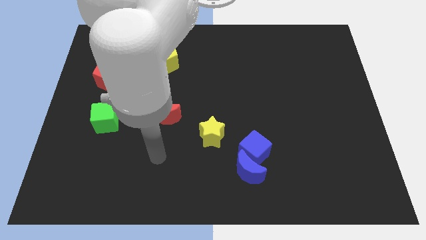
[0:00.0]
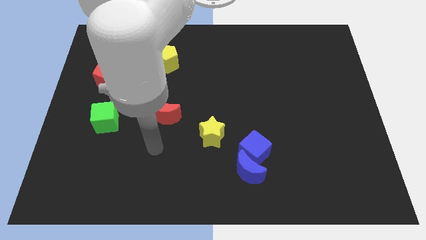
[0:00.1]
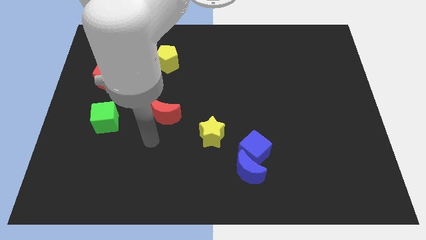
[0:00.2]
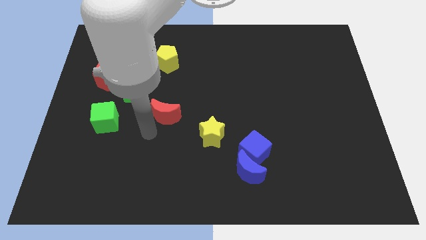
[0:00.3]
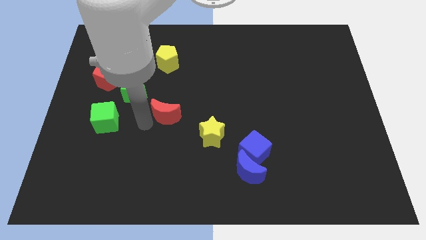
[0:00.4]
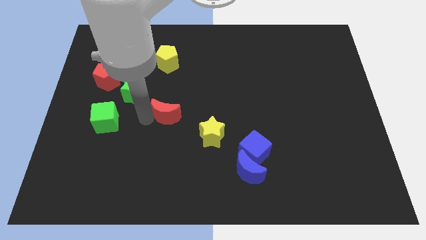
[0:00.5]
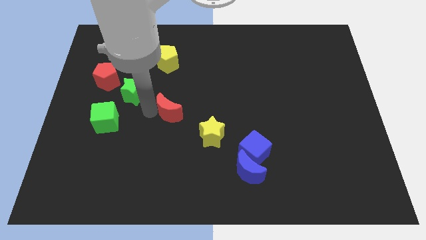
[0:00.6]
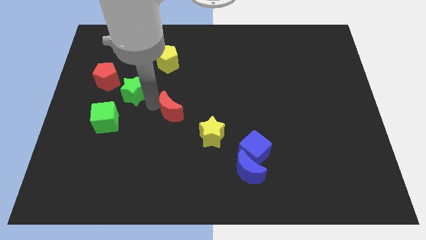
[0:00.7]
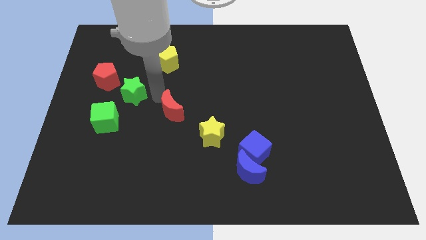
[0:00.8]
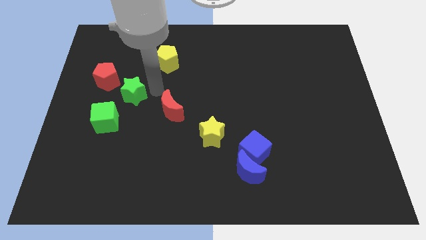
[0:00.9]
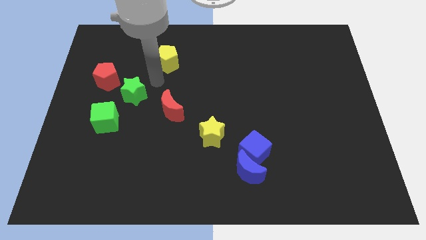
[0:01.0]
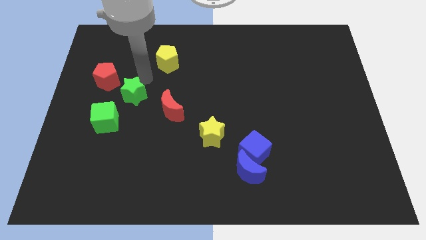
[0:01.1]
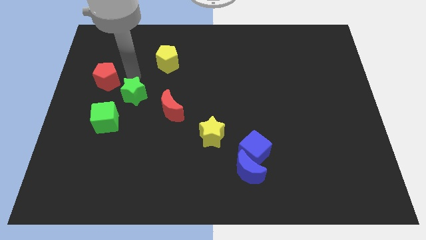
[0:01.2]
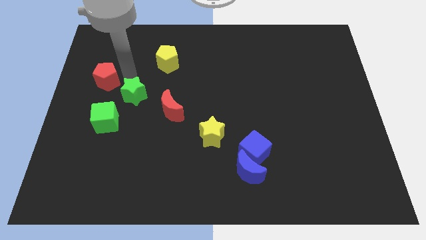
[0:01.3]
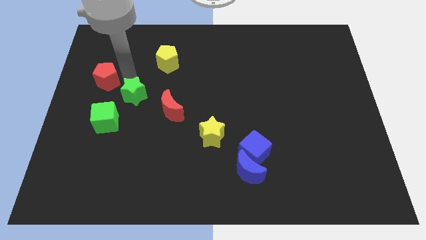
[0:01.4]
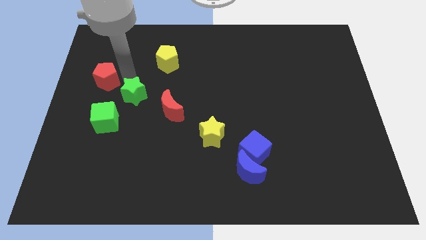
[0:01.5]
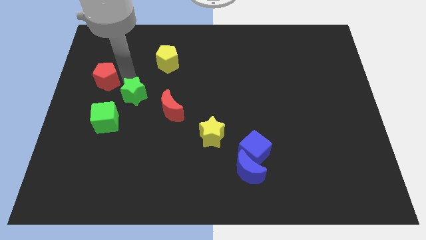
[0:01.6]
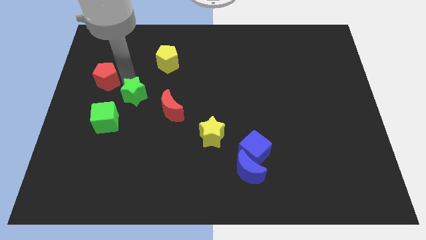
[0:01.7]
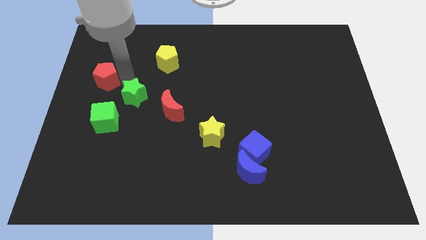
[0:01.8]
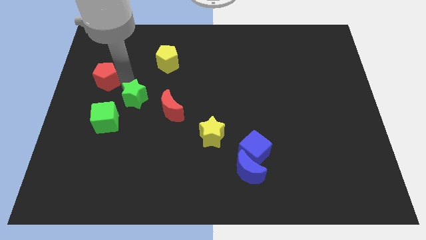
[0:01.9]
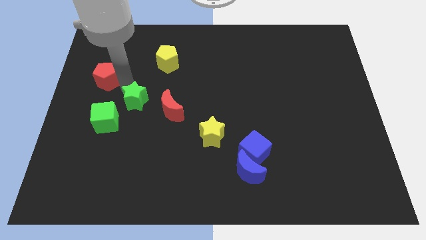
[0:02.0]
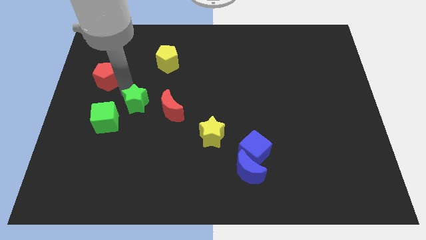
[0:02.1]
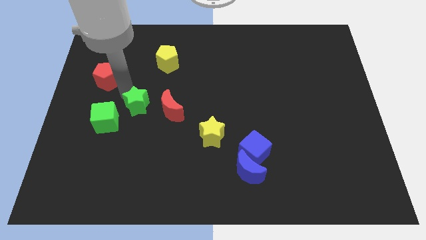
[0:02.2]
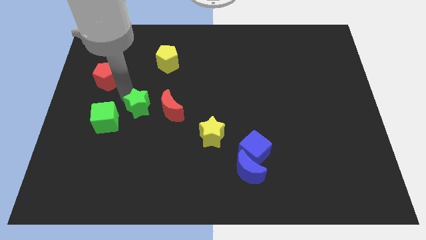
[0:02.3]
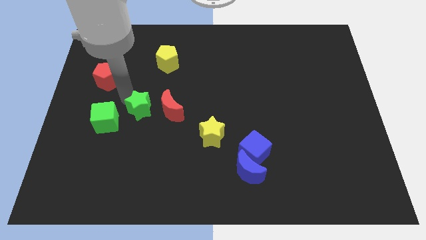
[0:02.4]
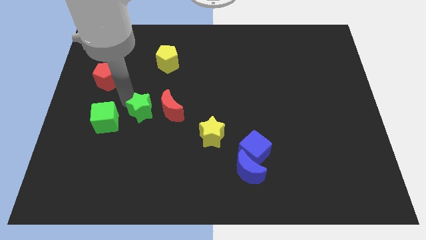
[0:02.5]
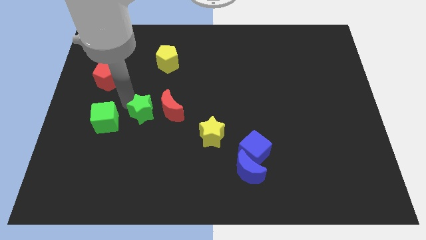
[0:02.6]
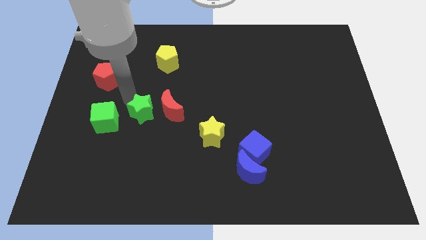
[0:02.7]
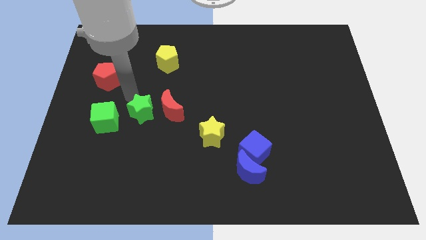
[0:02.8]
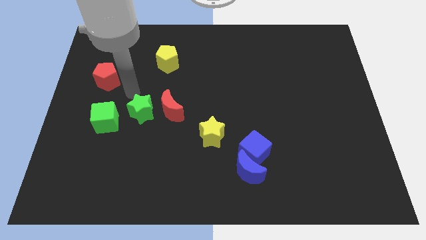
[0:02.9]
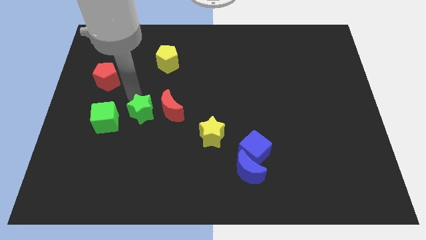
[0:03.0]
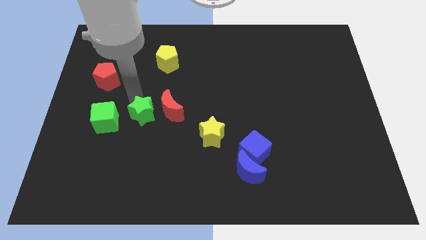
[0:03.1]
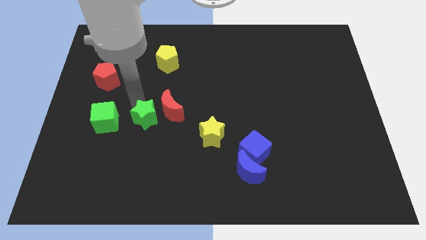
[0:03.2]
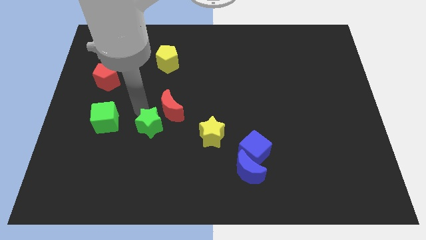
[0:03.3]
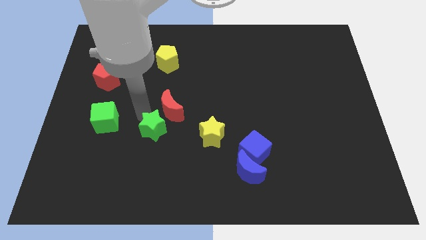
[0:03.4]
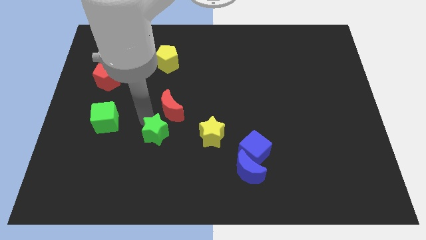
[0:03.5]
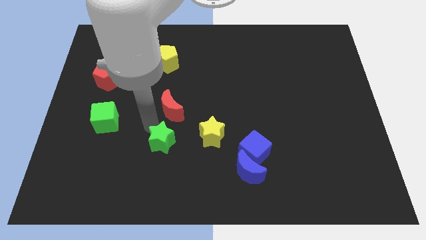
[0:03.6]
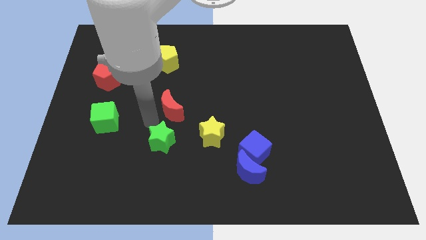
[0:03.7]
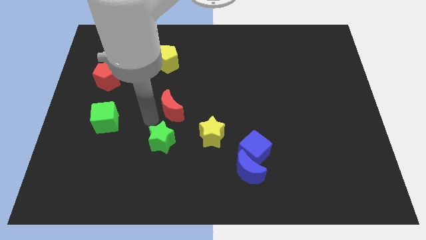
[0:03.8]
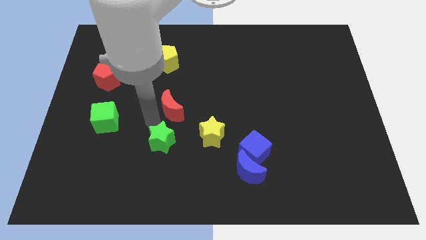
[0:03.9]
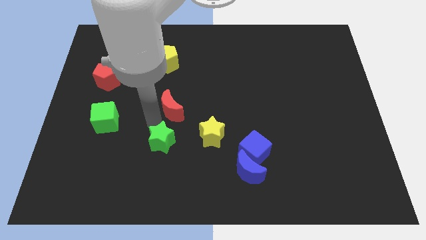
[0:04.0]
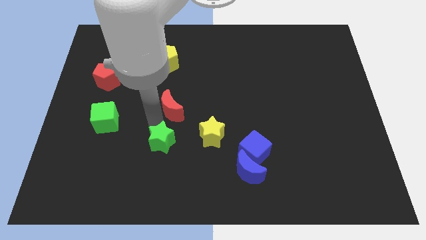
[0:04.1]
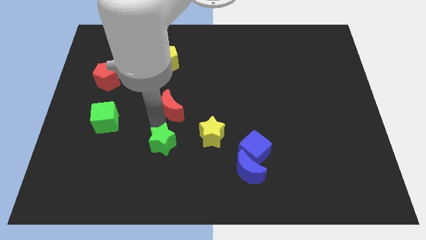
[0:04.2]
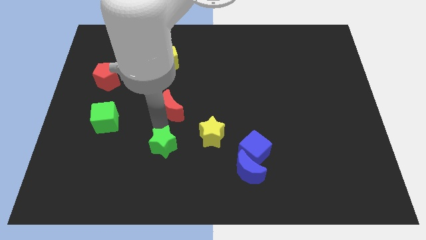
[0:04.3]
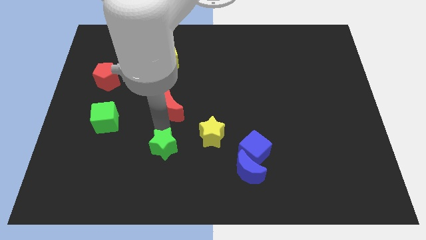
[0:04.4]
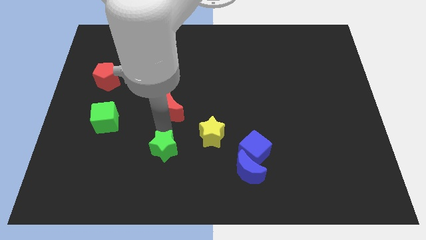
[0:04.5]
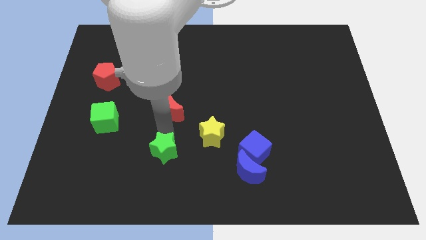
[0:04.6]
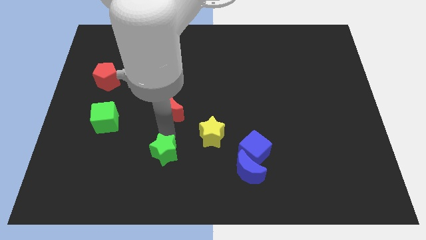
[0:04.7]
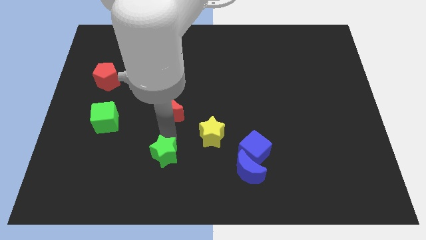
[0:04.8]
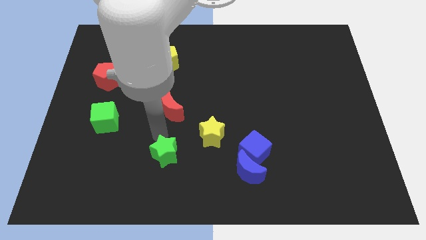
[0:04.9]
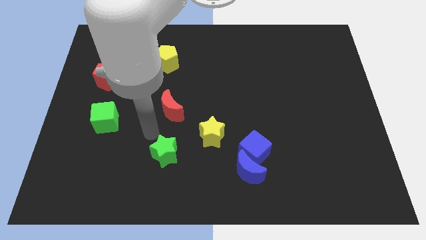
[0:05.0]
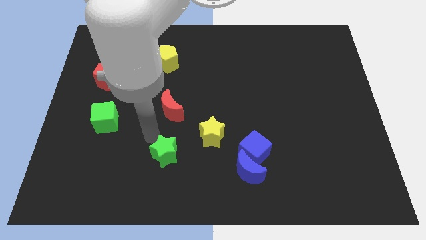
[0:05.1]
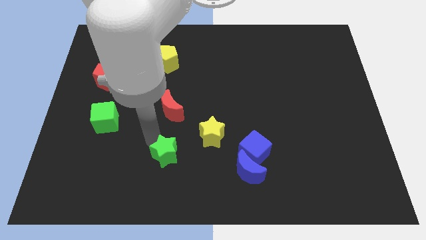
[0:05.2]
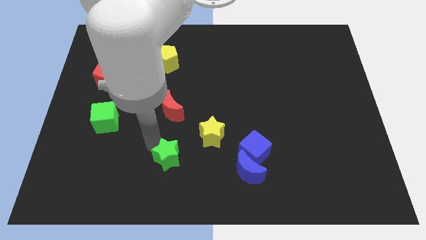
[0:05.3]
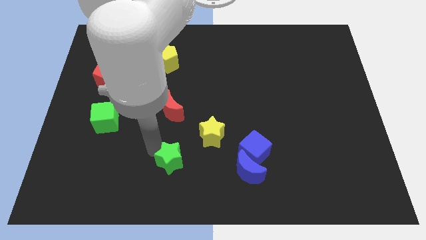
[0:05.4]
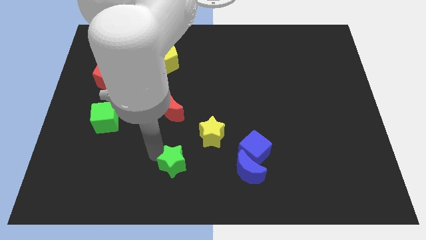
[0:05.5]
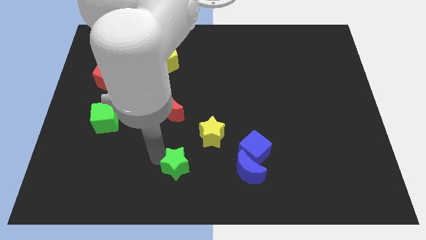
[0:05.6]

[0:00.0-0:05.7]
slide the green star to the bottom side

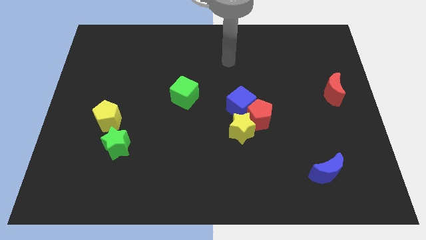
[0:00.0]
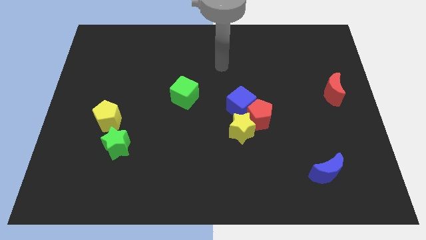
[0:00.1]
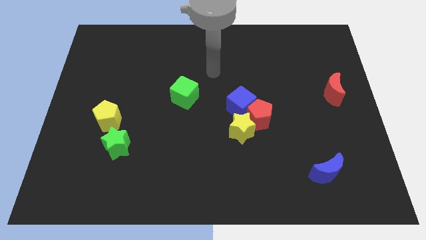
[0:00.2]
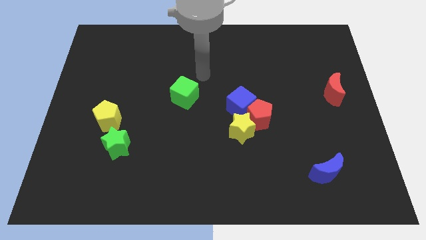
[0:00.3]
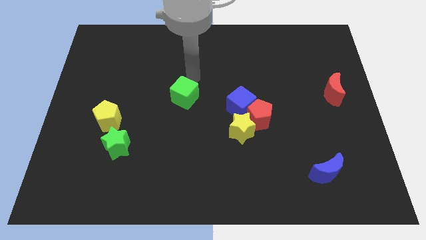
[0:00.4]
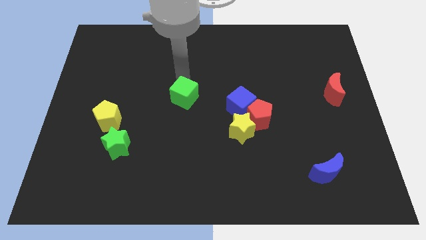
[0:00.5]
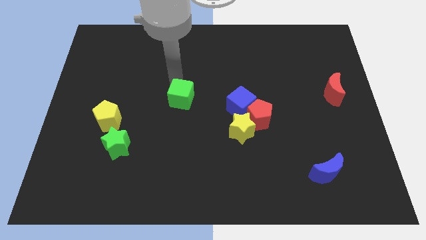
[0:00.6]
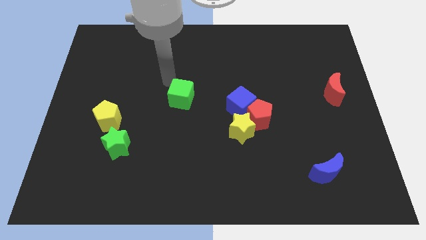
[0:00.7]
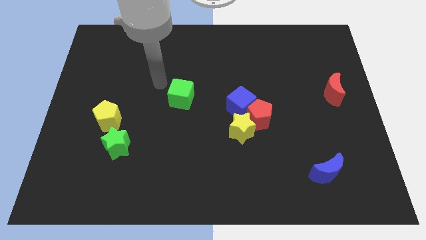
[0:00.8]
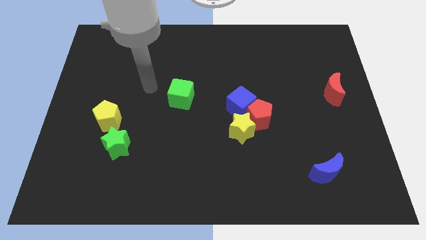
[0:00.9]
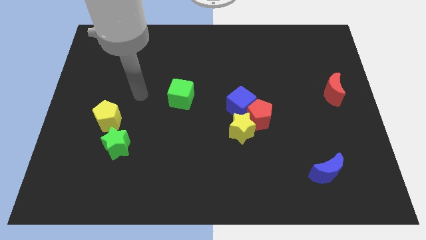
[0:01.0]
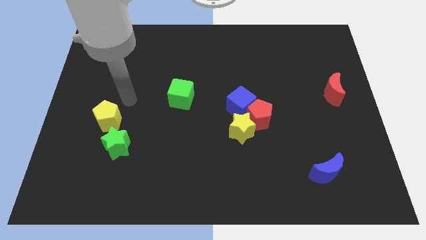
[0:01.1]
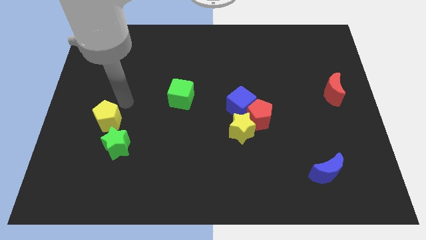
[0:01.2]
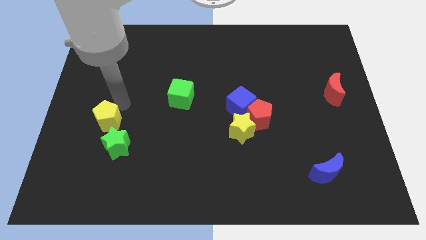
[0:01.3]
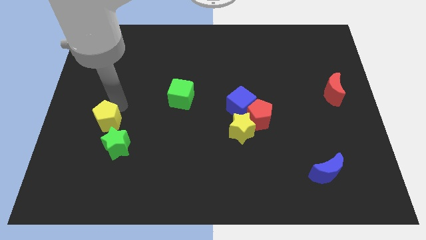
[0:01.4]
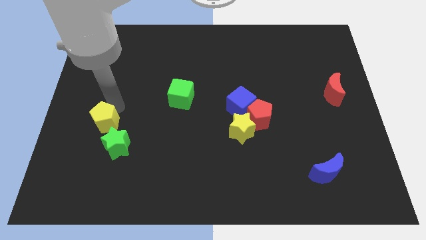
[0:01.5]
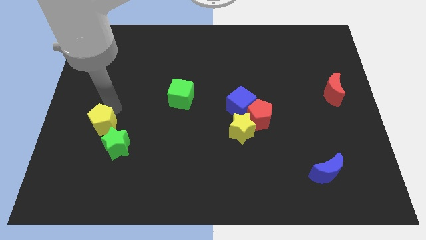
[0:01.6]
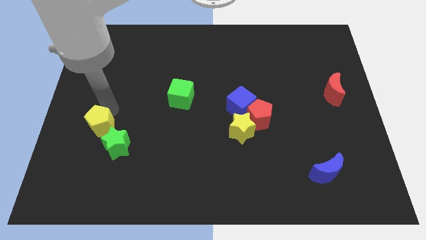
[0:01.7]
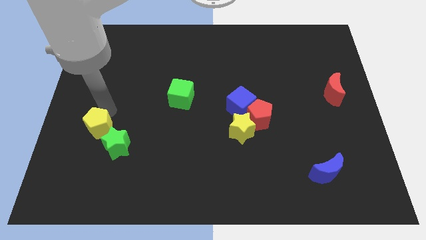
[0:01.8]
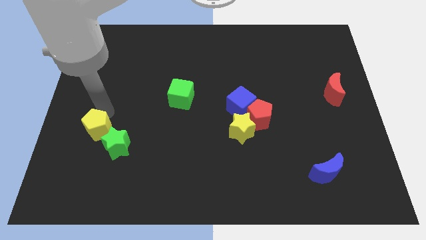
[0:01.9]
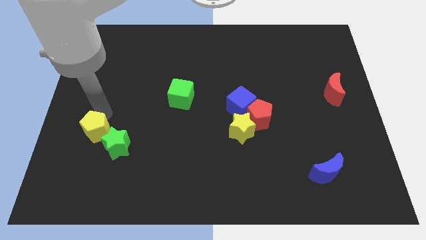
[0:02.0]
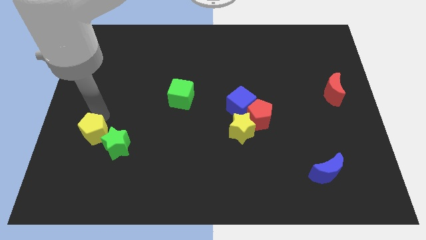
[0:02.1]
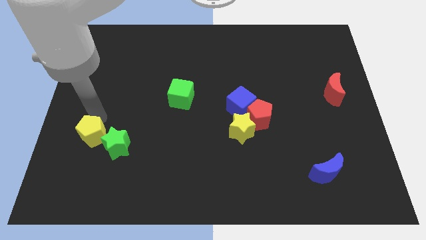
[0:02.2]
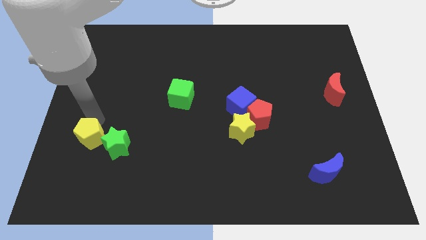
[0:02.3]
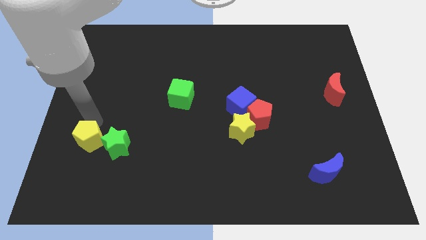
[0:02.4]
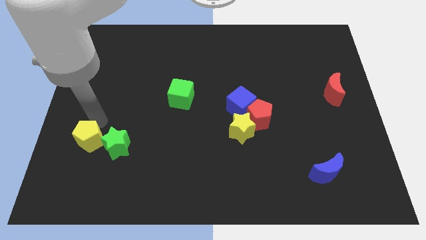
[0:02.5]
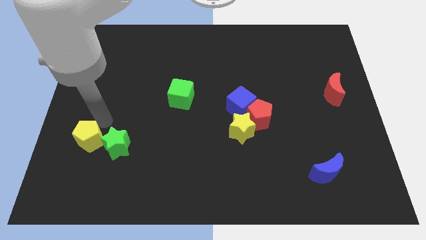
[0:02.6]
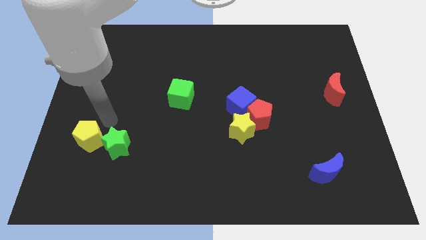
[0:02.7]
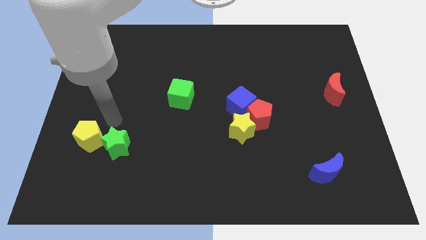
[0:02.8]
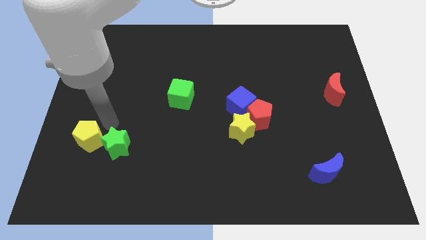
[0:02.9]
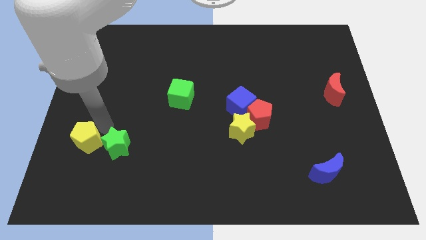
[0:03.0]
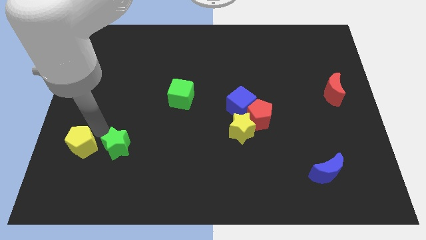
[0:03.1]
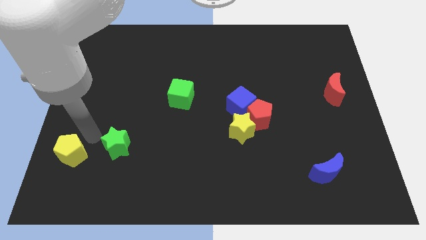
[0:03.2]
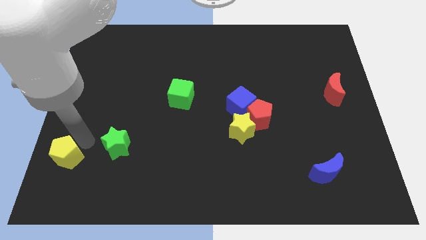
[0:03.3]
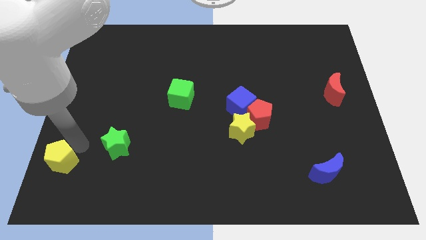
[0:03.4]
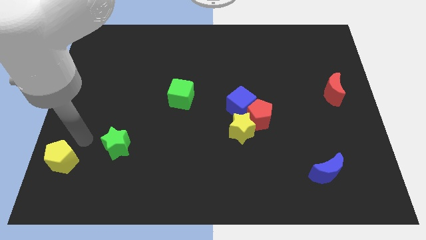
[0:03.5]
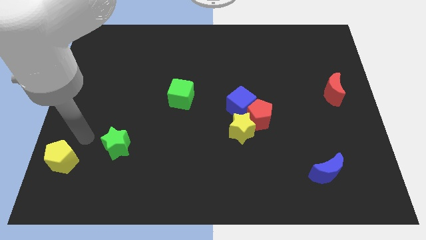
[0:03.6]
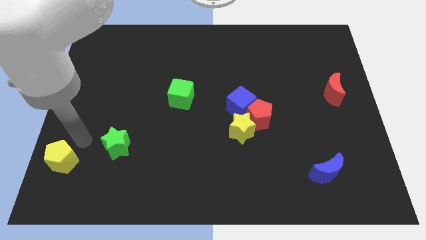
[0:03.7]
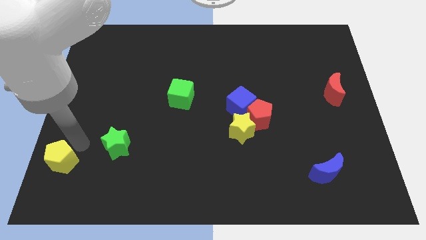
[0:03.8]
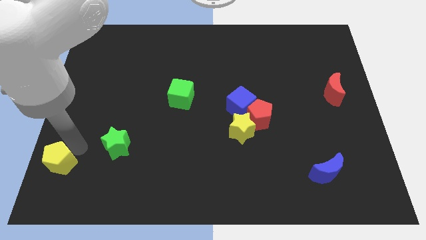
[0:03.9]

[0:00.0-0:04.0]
push the yellow pentagon to the bottom left
